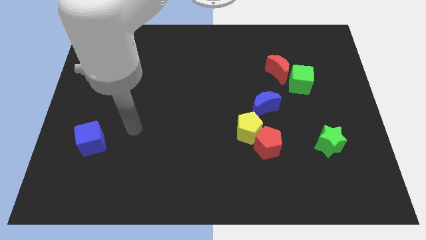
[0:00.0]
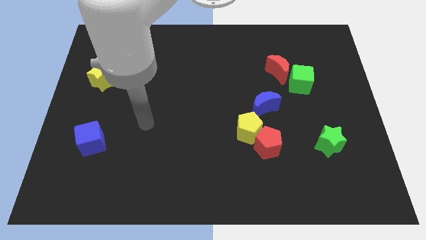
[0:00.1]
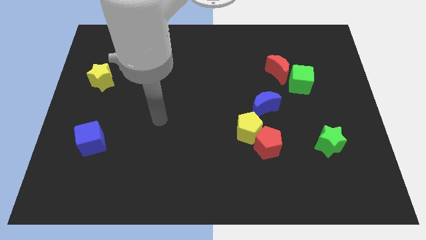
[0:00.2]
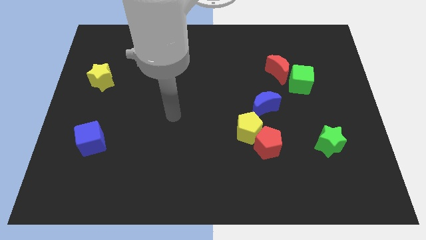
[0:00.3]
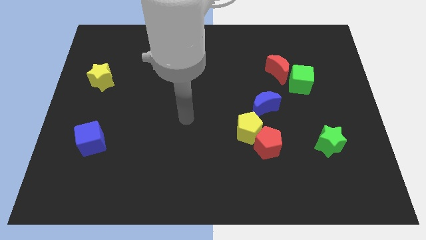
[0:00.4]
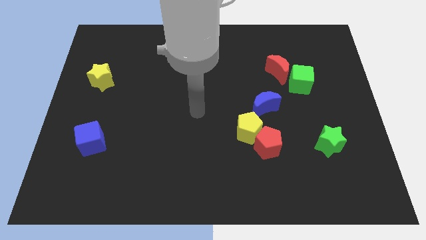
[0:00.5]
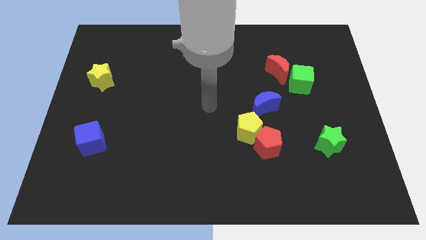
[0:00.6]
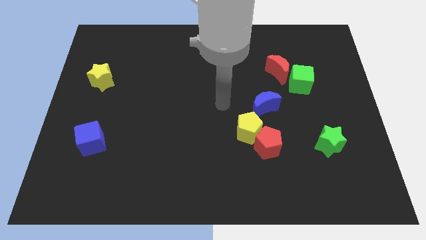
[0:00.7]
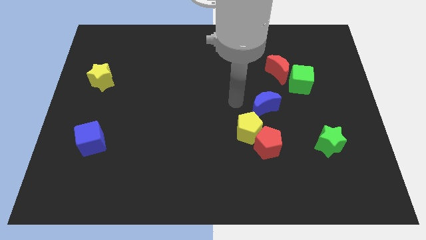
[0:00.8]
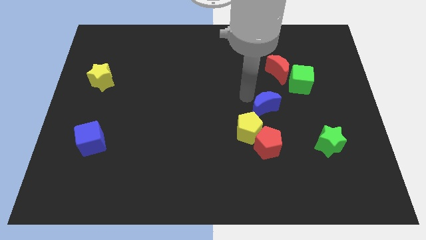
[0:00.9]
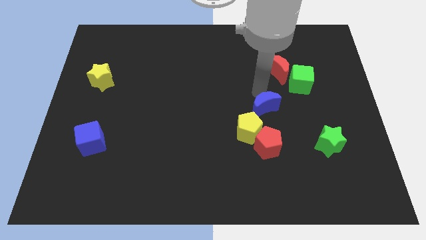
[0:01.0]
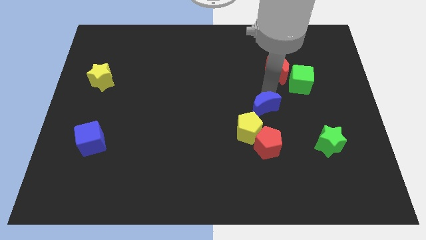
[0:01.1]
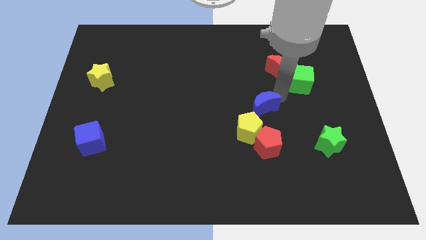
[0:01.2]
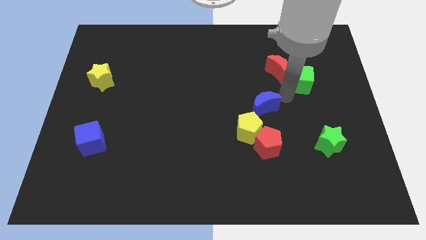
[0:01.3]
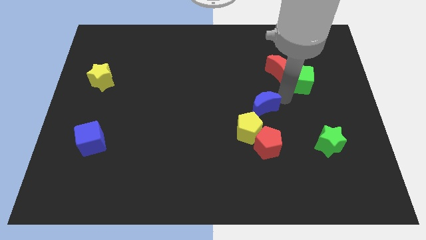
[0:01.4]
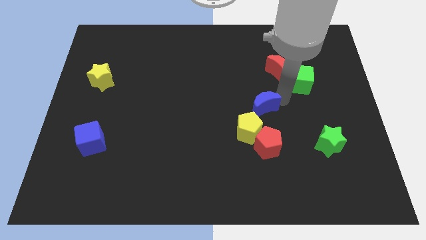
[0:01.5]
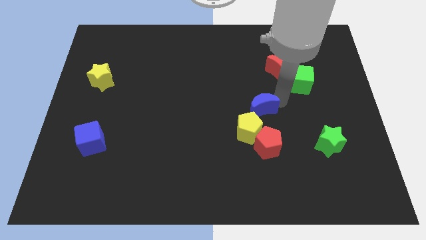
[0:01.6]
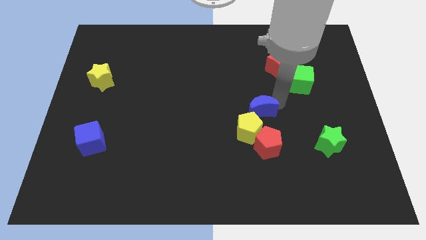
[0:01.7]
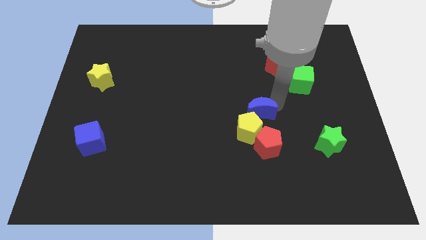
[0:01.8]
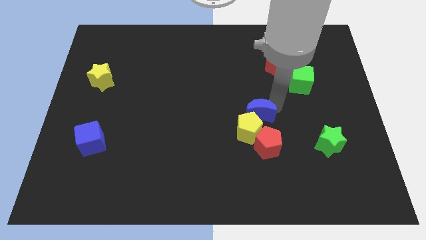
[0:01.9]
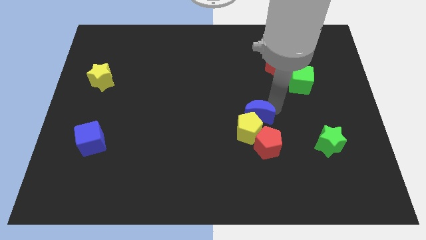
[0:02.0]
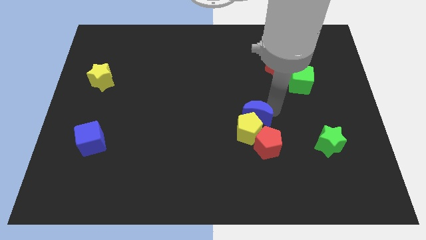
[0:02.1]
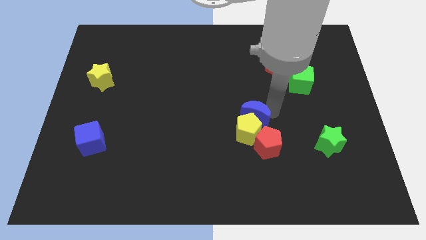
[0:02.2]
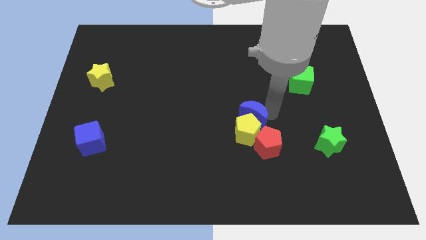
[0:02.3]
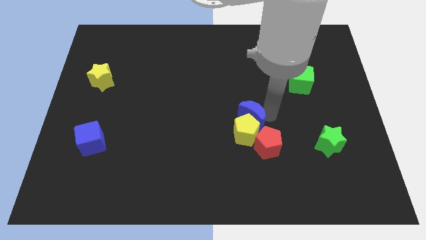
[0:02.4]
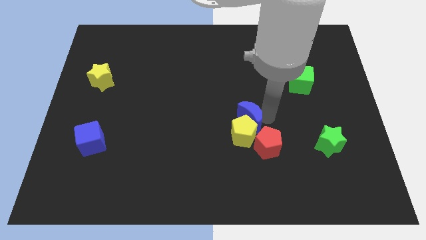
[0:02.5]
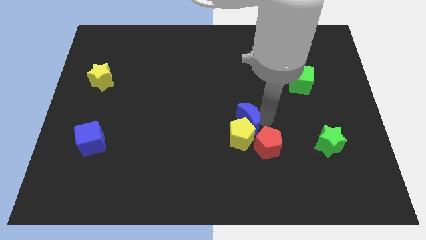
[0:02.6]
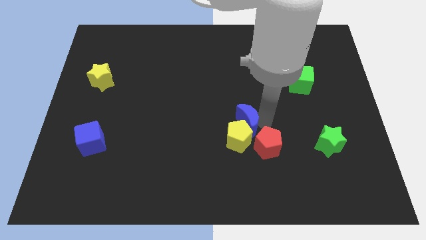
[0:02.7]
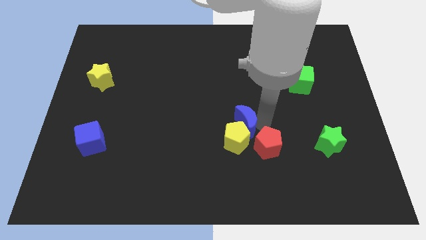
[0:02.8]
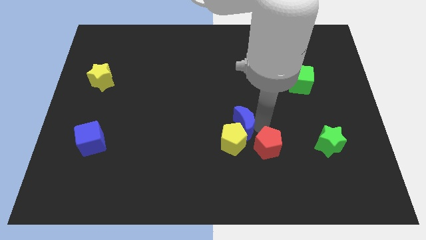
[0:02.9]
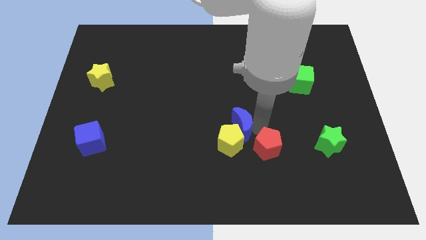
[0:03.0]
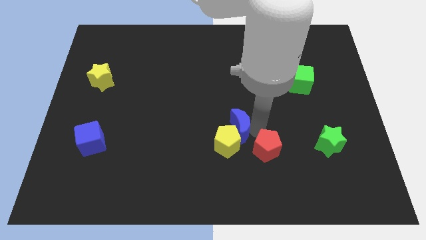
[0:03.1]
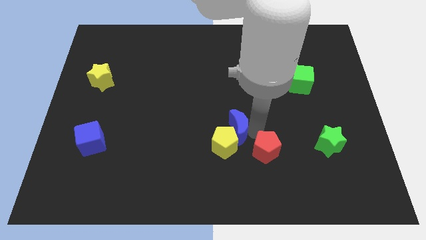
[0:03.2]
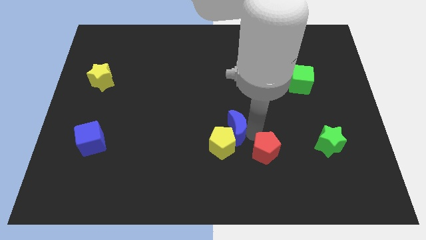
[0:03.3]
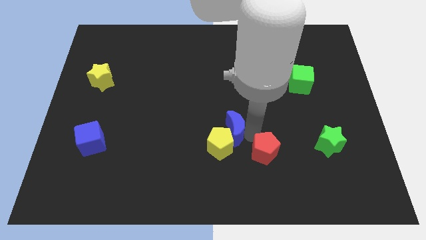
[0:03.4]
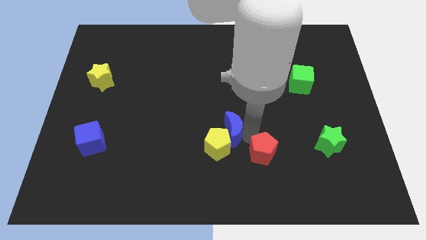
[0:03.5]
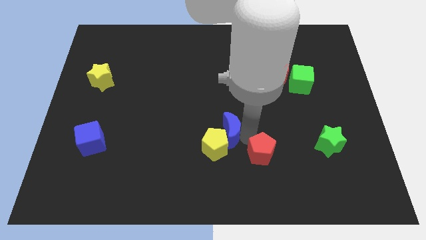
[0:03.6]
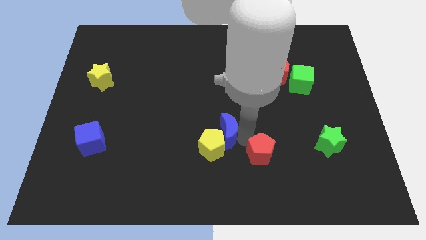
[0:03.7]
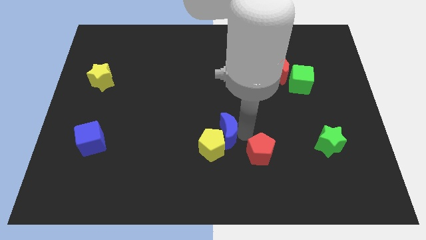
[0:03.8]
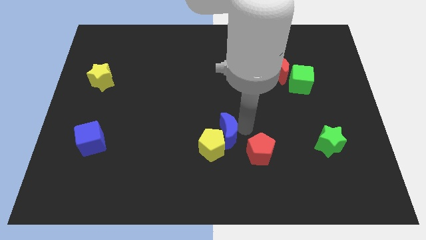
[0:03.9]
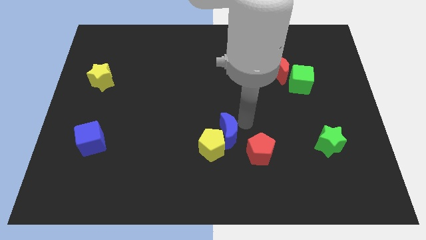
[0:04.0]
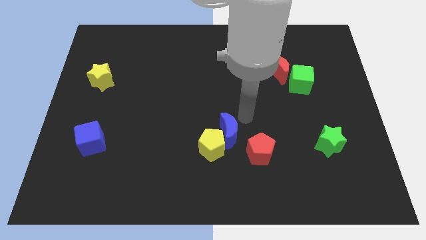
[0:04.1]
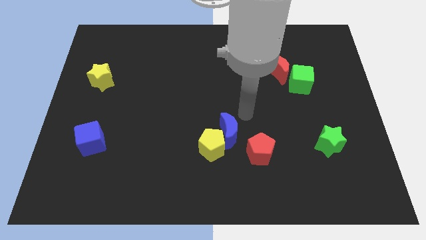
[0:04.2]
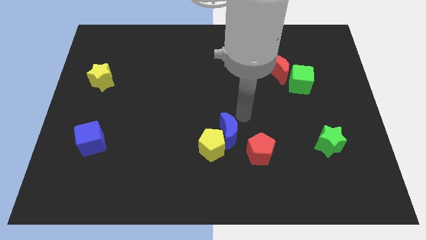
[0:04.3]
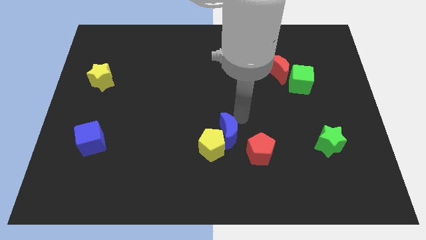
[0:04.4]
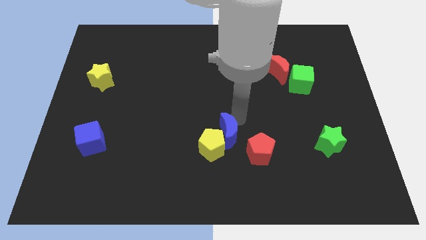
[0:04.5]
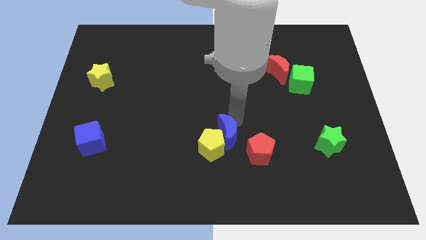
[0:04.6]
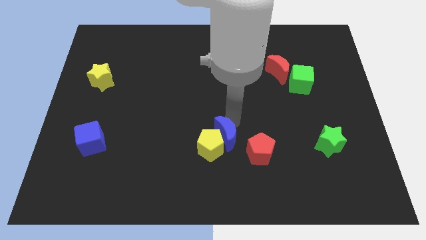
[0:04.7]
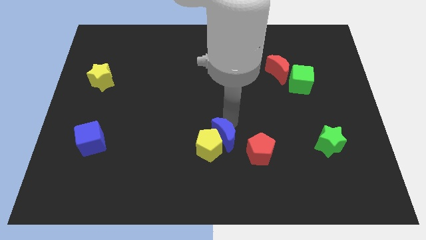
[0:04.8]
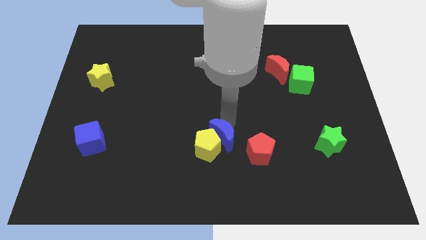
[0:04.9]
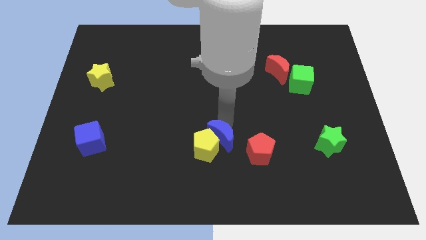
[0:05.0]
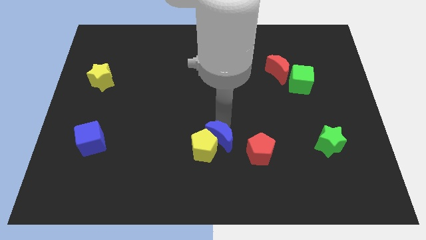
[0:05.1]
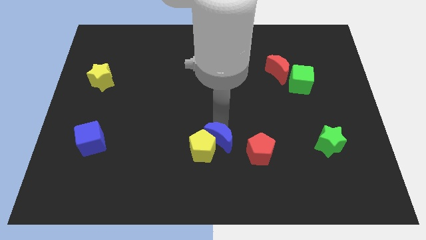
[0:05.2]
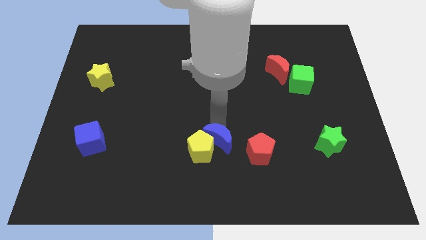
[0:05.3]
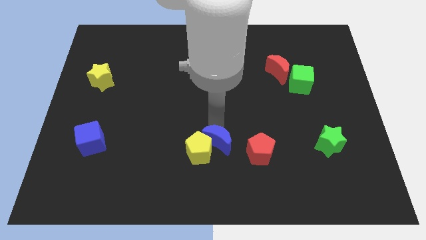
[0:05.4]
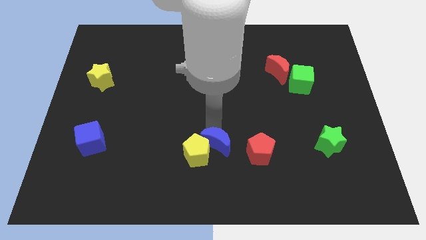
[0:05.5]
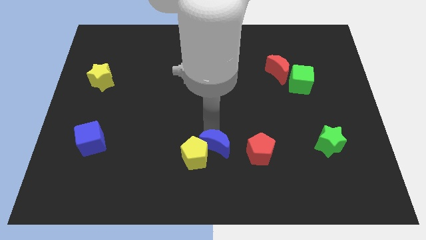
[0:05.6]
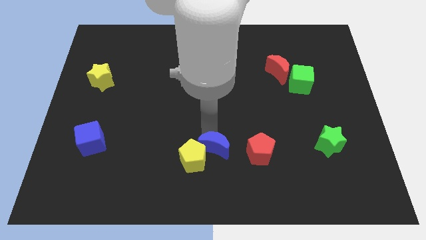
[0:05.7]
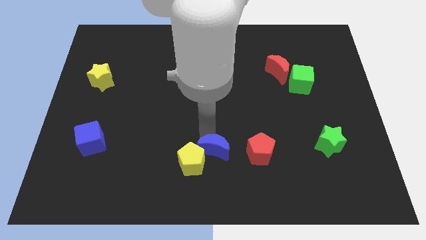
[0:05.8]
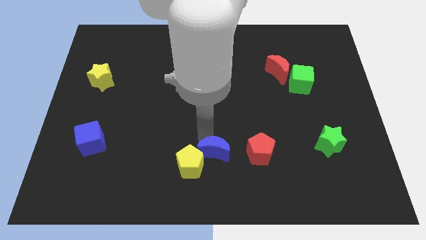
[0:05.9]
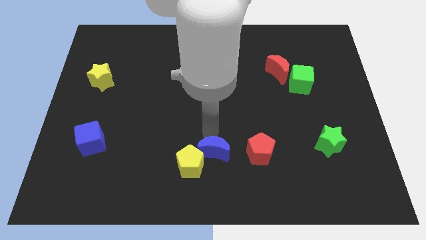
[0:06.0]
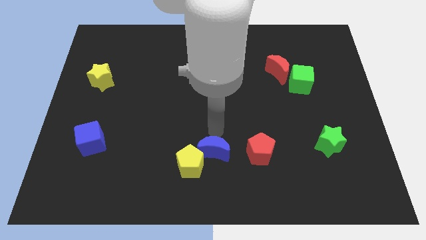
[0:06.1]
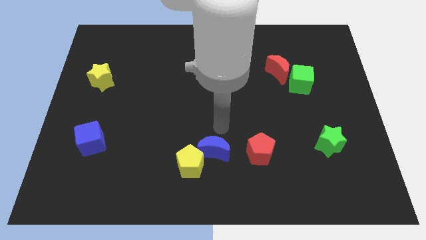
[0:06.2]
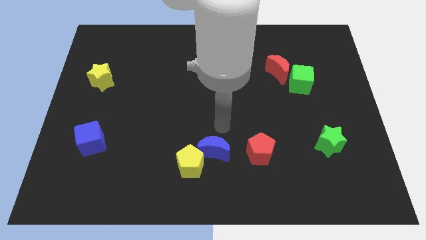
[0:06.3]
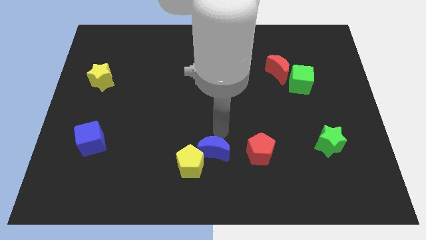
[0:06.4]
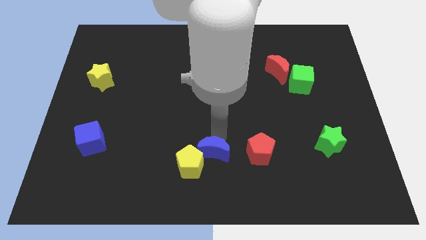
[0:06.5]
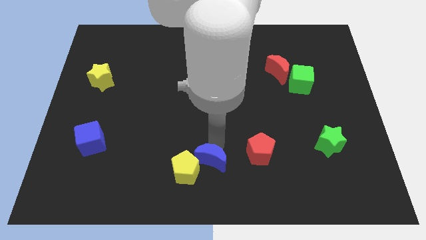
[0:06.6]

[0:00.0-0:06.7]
move the blue moon to the bottom side

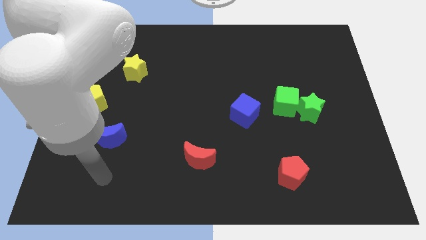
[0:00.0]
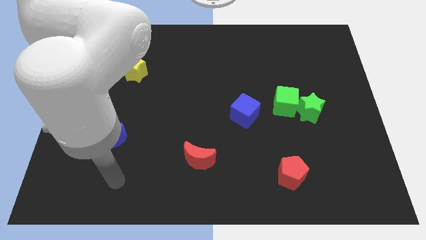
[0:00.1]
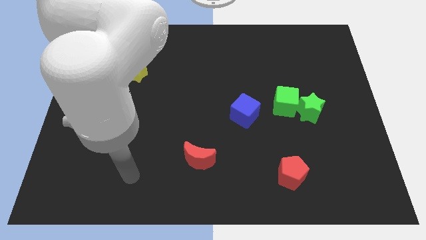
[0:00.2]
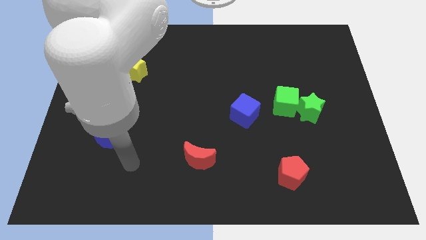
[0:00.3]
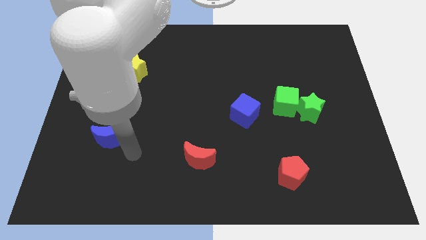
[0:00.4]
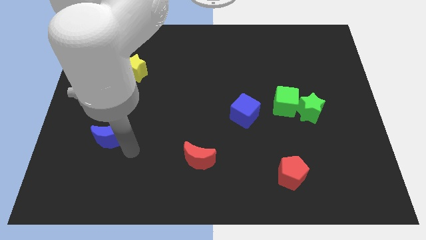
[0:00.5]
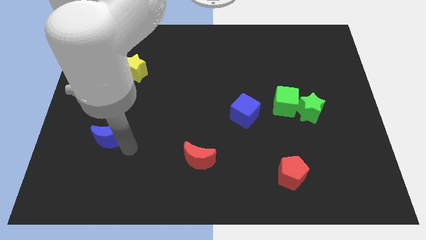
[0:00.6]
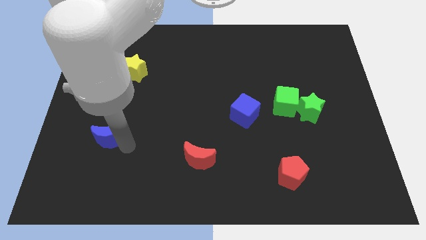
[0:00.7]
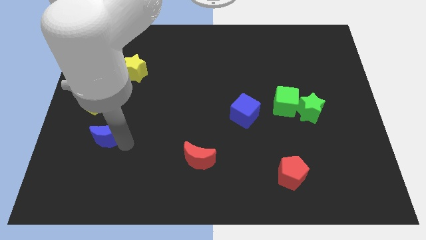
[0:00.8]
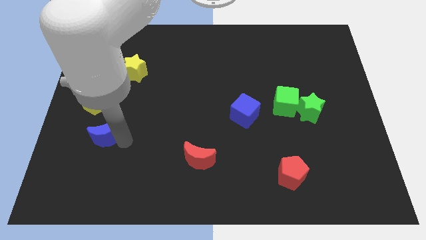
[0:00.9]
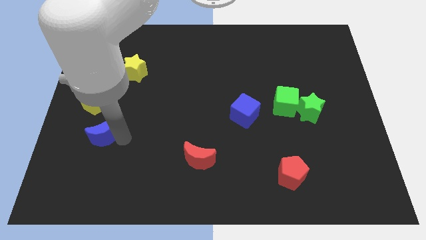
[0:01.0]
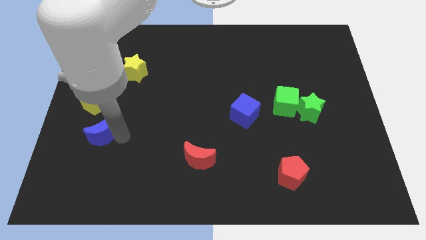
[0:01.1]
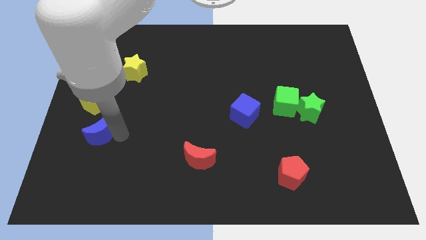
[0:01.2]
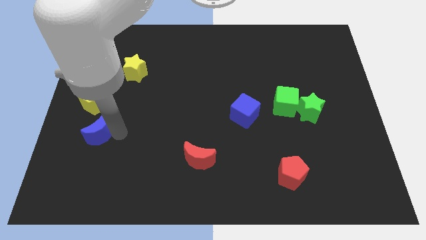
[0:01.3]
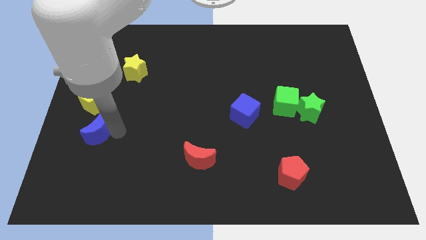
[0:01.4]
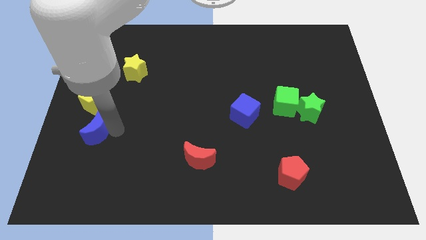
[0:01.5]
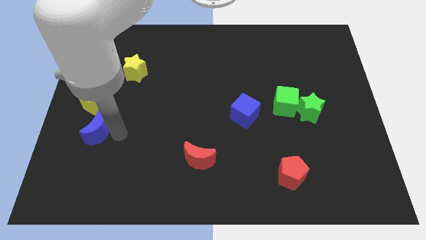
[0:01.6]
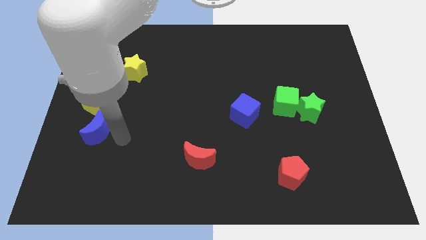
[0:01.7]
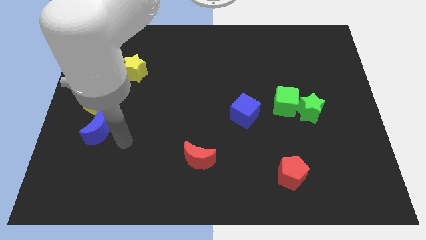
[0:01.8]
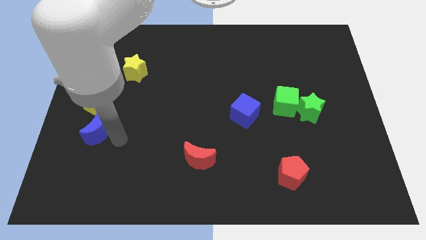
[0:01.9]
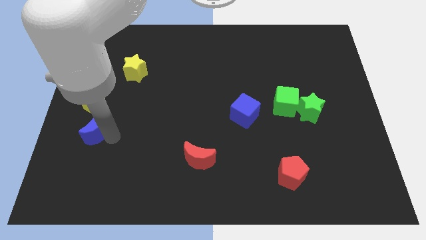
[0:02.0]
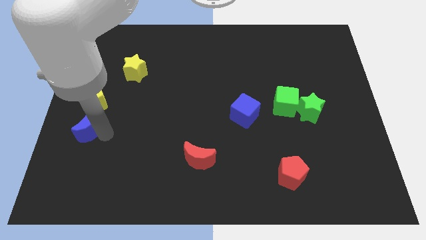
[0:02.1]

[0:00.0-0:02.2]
push the blue moon to the left side of the board
